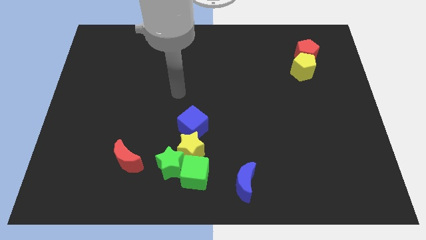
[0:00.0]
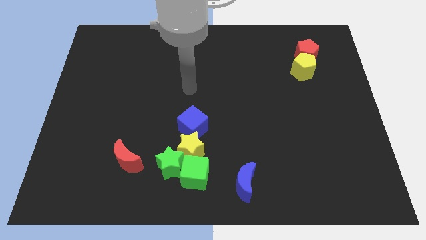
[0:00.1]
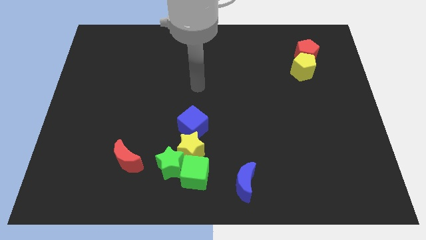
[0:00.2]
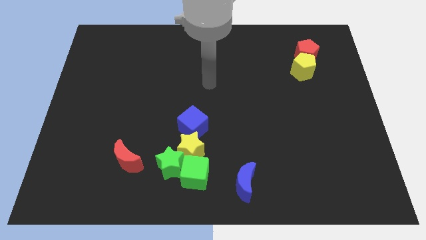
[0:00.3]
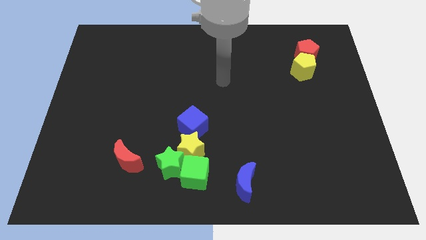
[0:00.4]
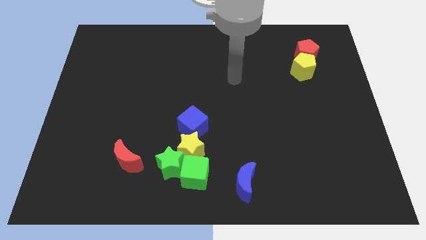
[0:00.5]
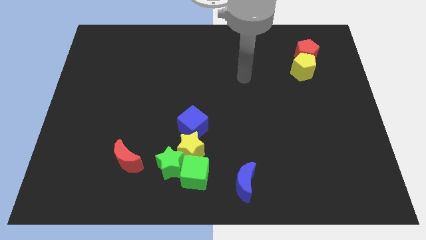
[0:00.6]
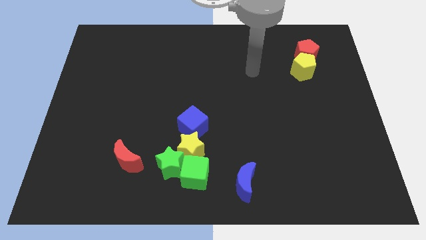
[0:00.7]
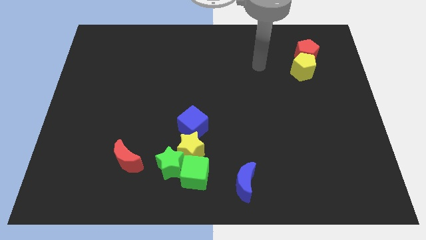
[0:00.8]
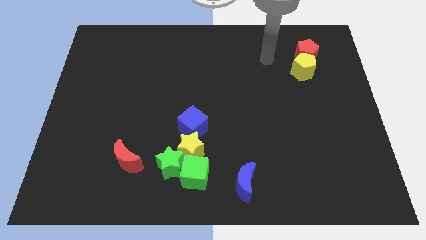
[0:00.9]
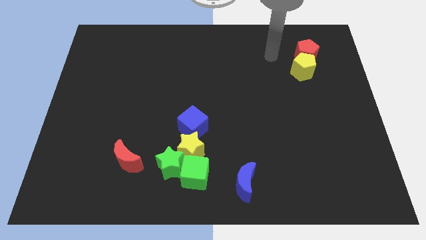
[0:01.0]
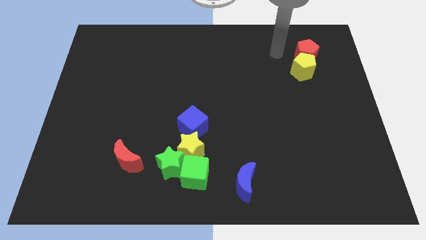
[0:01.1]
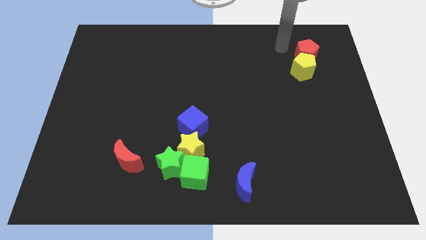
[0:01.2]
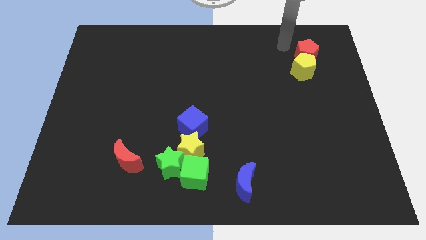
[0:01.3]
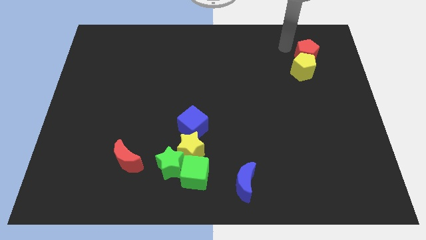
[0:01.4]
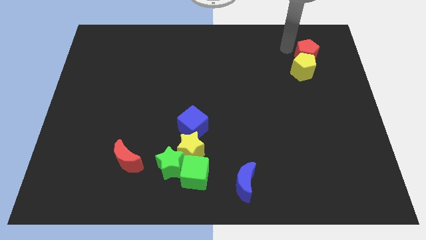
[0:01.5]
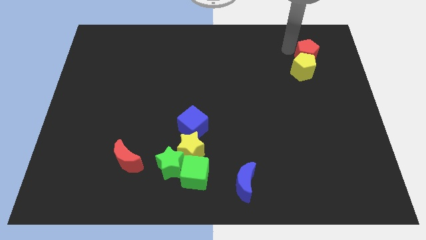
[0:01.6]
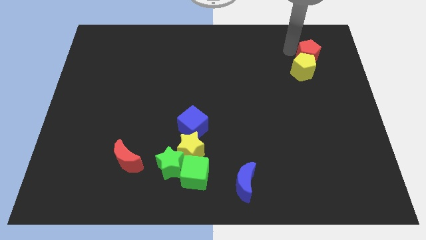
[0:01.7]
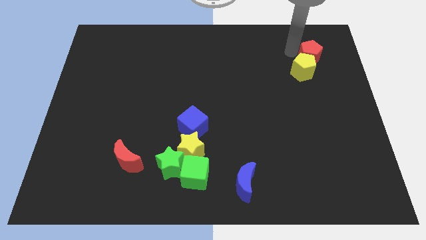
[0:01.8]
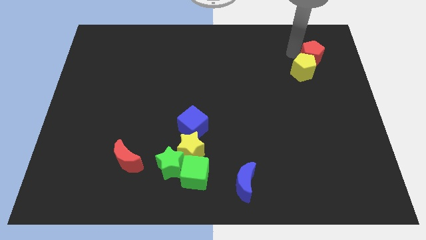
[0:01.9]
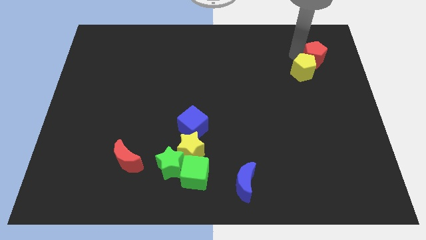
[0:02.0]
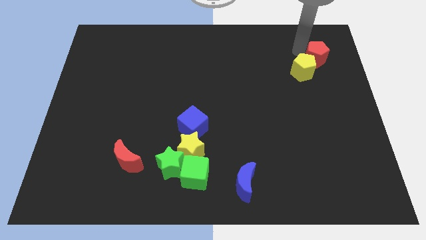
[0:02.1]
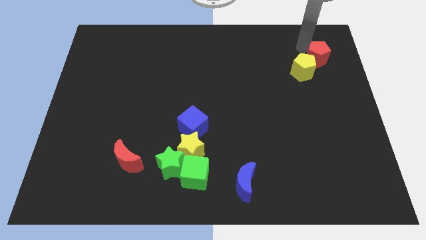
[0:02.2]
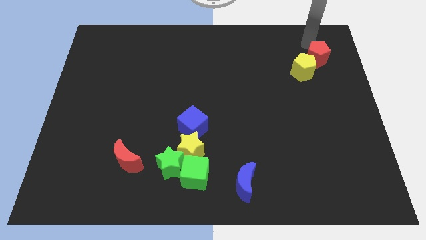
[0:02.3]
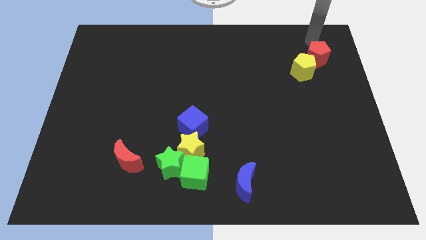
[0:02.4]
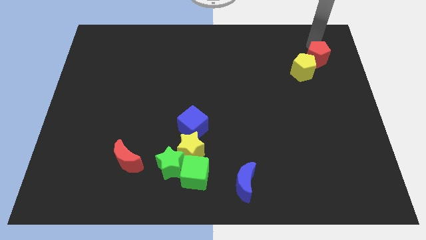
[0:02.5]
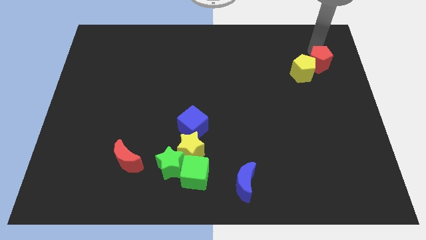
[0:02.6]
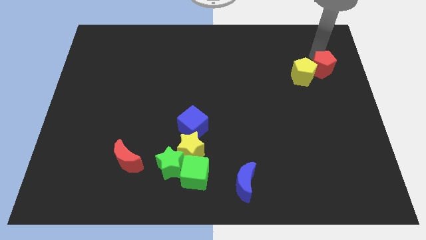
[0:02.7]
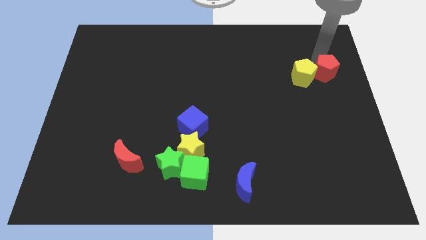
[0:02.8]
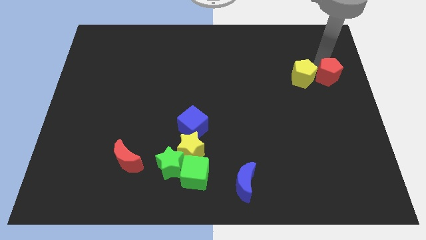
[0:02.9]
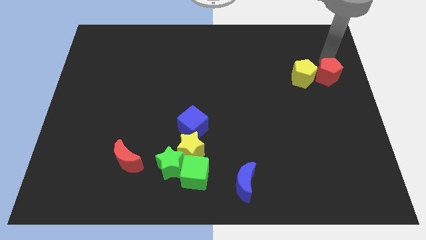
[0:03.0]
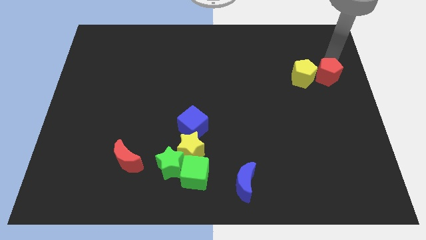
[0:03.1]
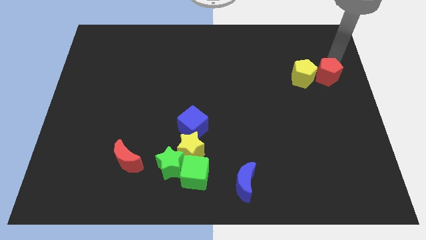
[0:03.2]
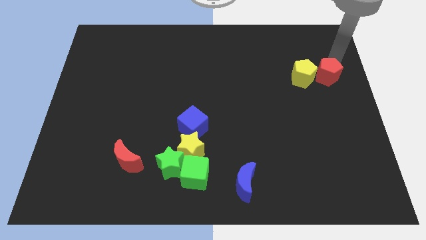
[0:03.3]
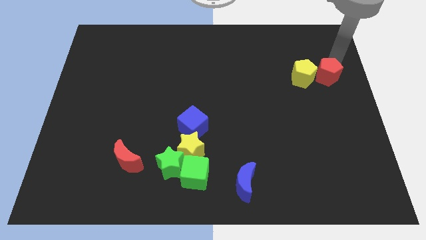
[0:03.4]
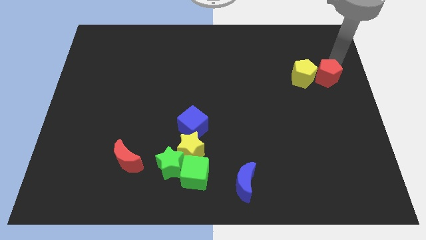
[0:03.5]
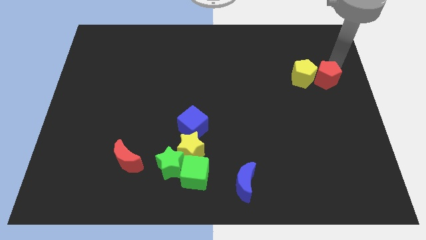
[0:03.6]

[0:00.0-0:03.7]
slightly move the red pentagon down

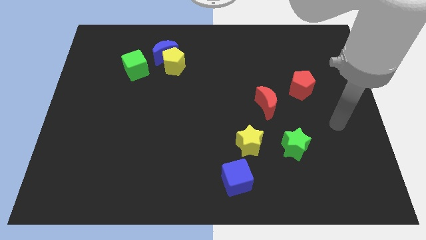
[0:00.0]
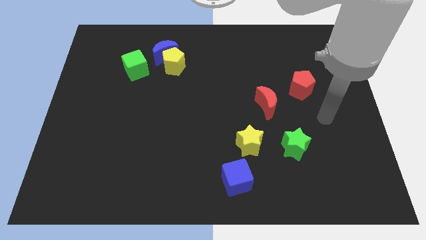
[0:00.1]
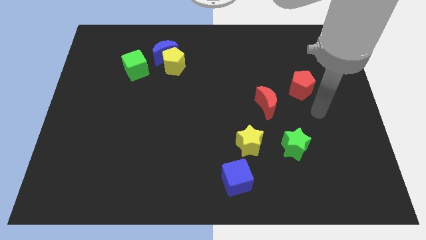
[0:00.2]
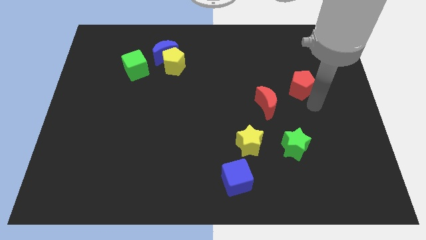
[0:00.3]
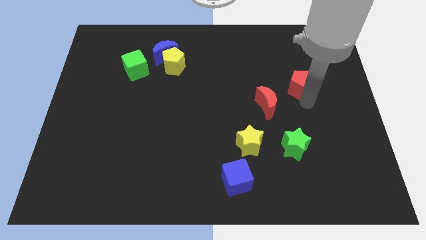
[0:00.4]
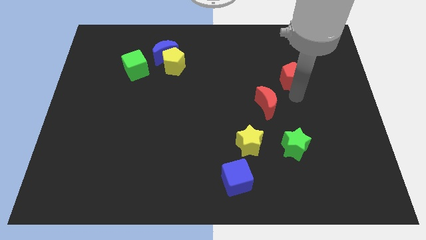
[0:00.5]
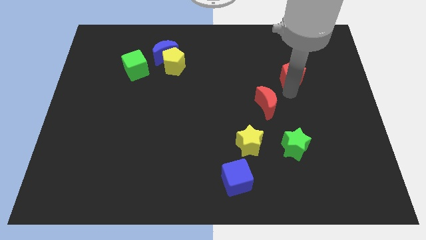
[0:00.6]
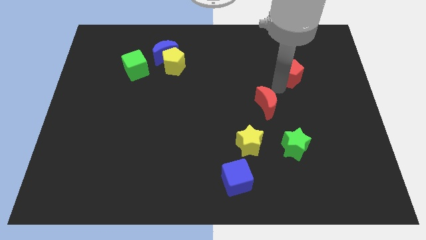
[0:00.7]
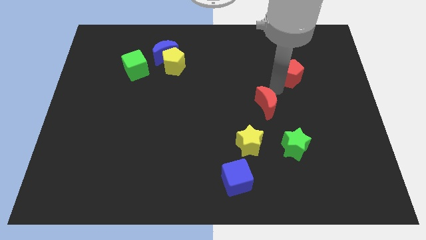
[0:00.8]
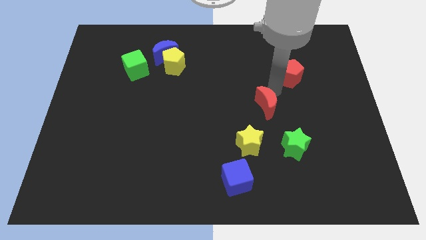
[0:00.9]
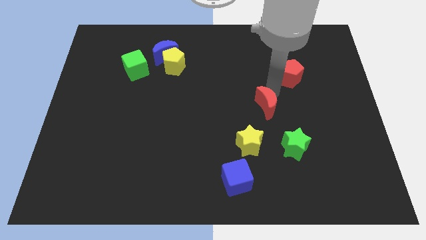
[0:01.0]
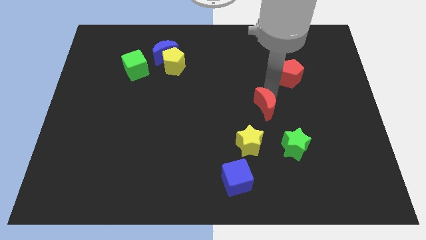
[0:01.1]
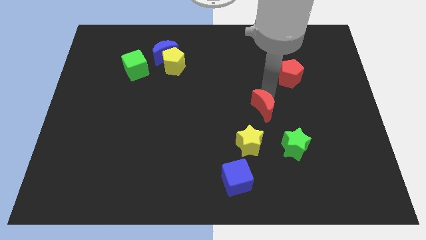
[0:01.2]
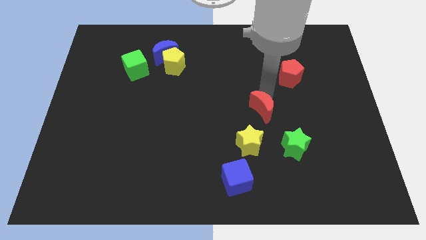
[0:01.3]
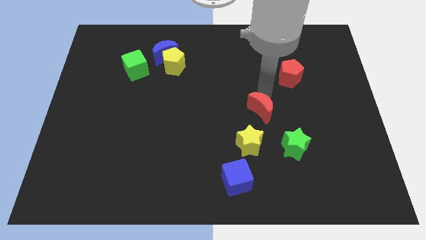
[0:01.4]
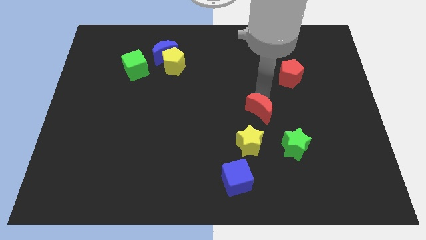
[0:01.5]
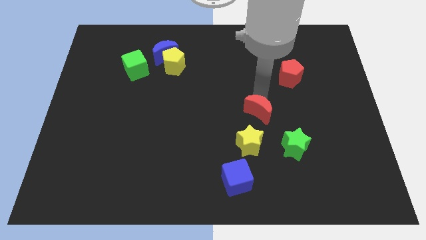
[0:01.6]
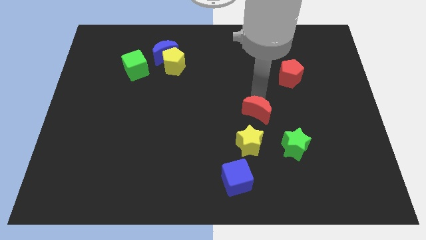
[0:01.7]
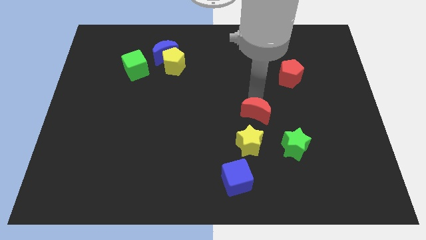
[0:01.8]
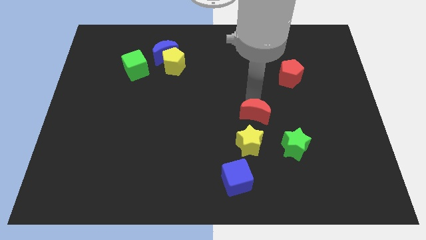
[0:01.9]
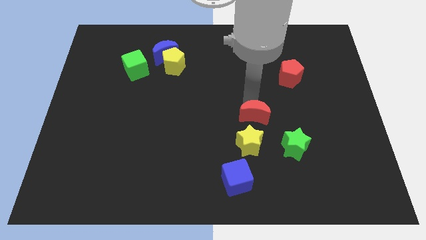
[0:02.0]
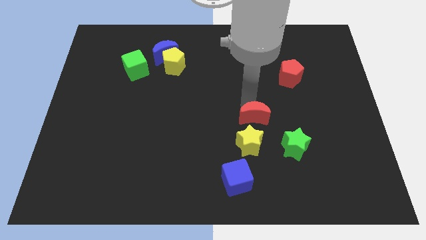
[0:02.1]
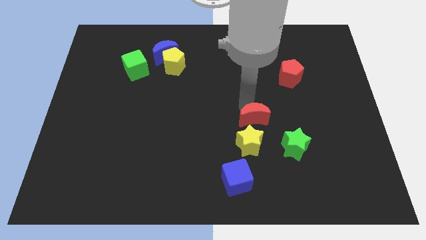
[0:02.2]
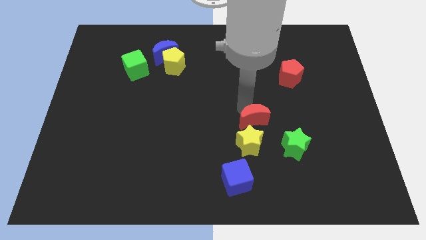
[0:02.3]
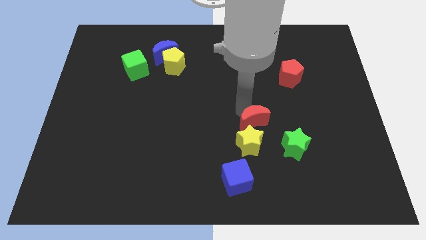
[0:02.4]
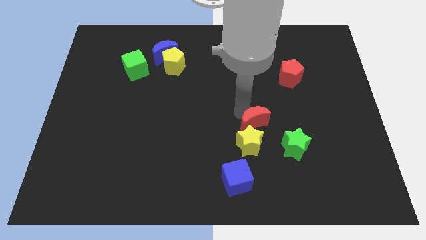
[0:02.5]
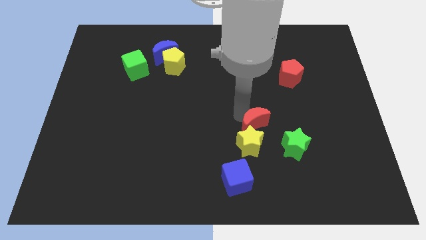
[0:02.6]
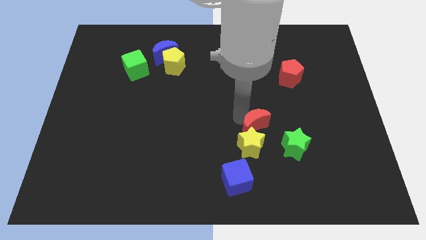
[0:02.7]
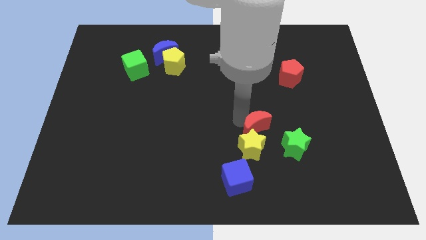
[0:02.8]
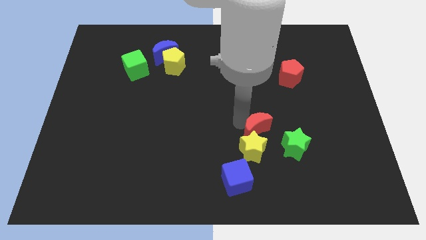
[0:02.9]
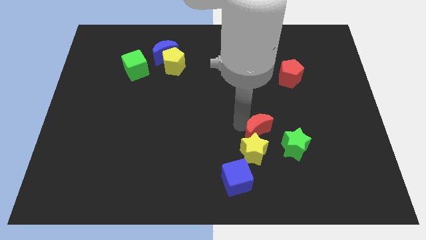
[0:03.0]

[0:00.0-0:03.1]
move the red moon down a bit

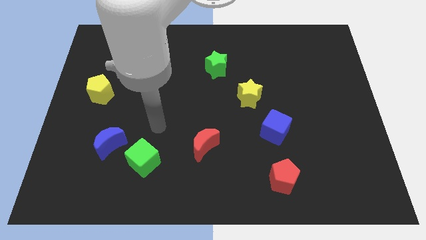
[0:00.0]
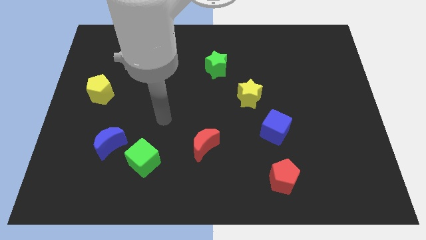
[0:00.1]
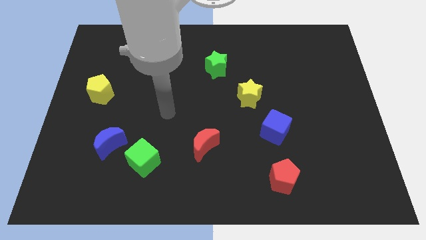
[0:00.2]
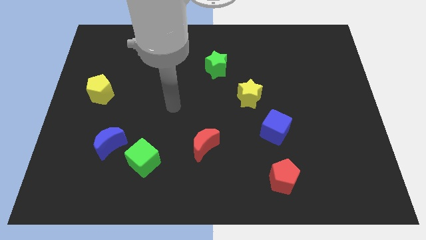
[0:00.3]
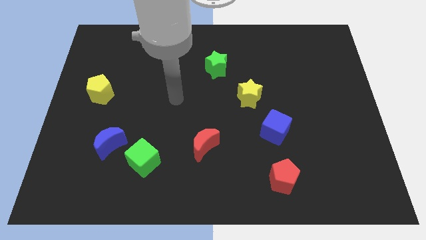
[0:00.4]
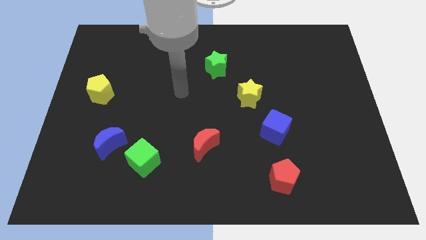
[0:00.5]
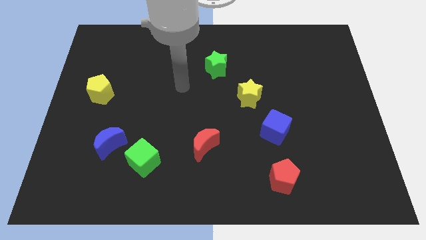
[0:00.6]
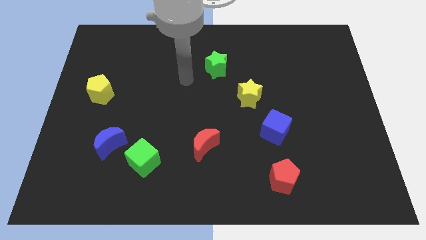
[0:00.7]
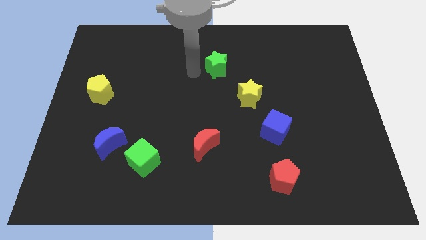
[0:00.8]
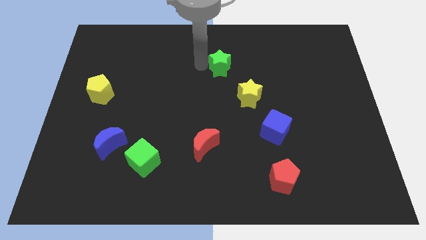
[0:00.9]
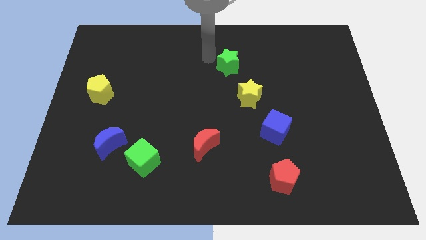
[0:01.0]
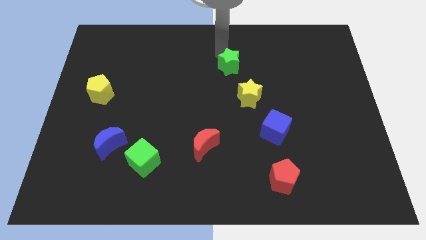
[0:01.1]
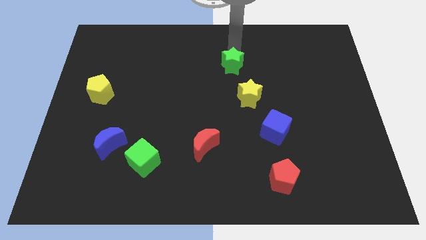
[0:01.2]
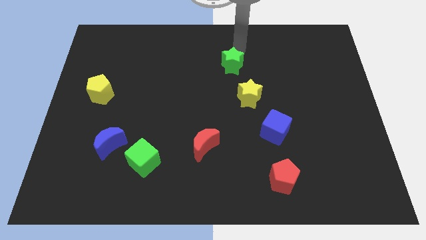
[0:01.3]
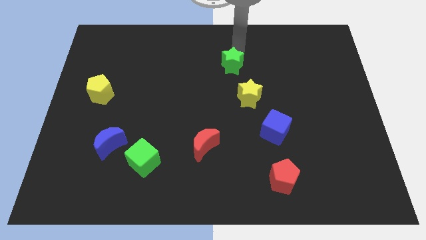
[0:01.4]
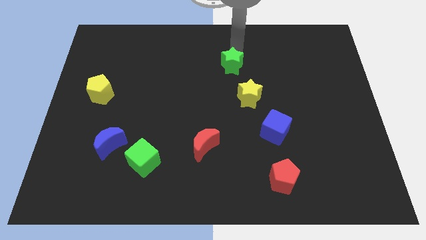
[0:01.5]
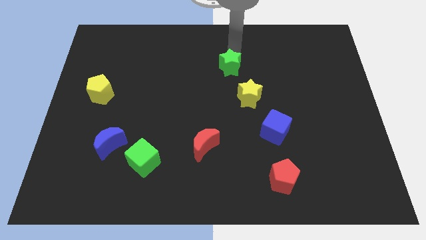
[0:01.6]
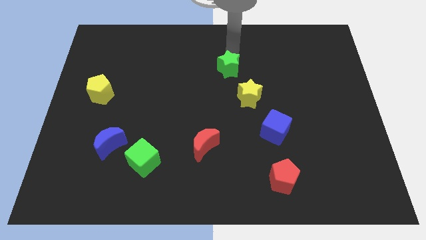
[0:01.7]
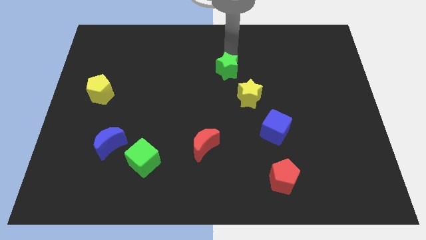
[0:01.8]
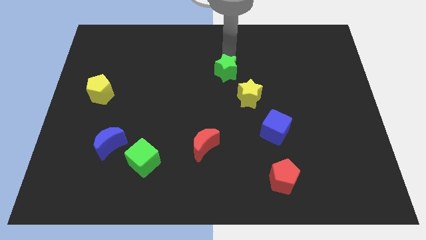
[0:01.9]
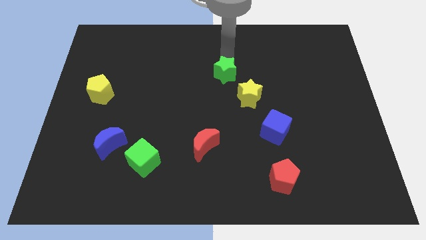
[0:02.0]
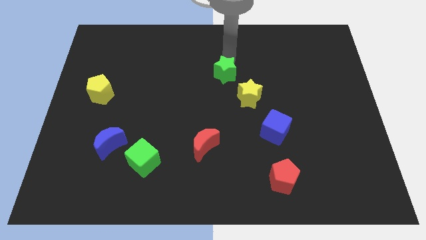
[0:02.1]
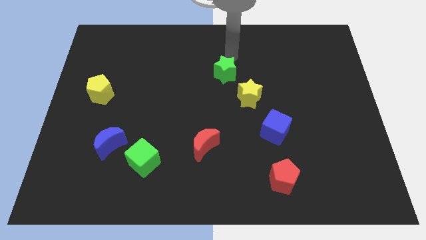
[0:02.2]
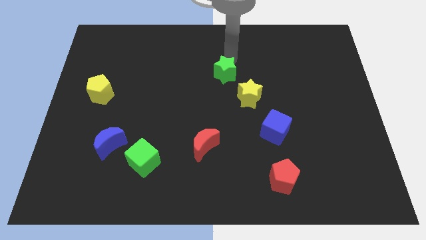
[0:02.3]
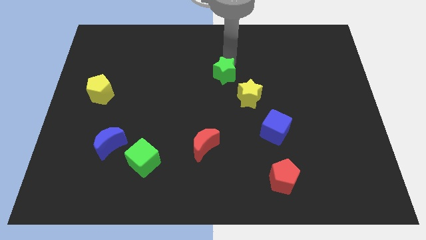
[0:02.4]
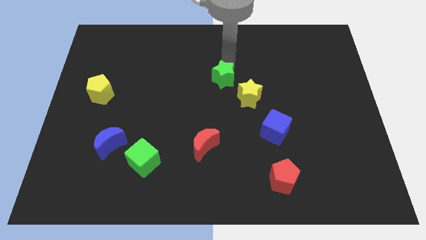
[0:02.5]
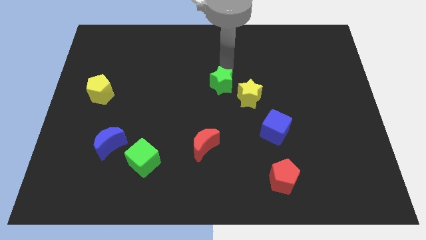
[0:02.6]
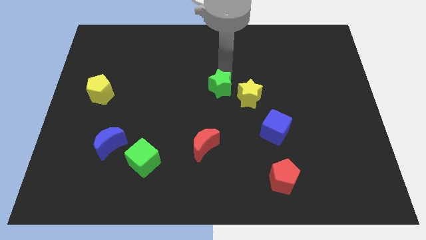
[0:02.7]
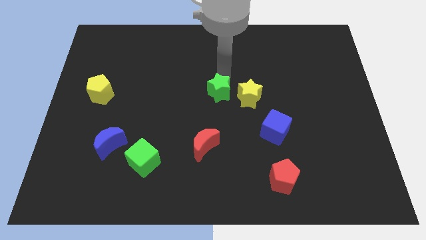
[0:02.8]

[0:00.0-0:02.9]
slide the green star downwards slightly
